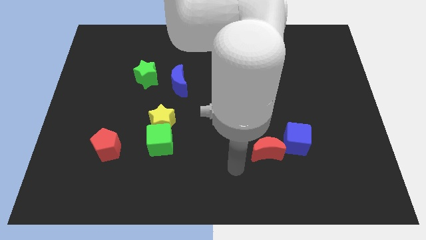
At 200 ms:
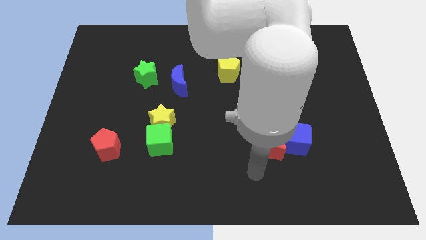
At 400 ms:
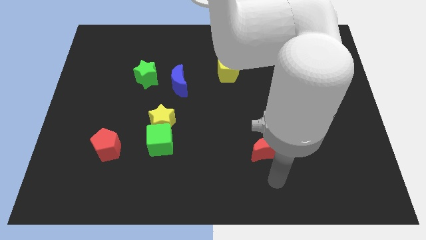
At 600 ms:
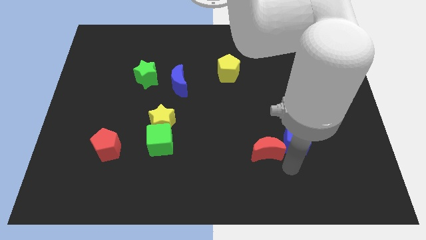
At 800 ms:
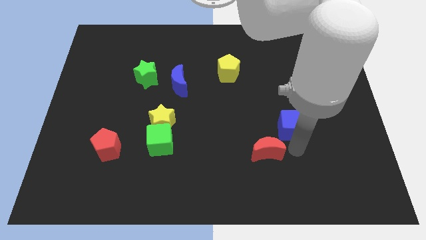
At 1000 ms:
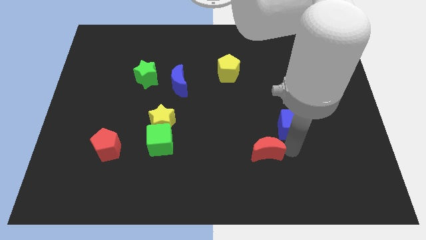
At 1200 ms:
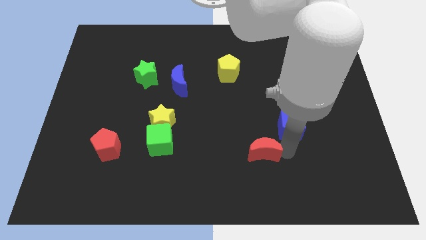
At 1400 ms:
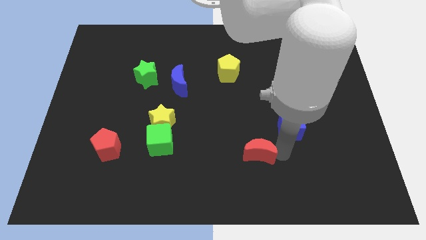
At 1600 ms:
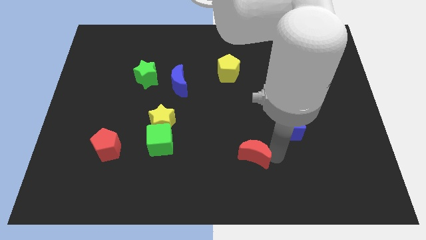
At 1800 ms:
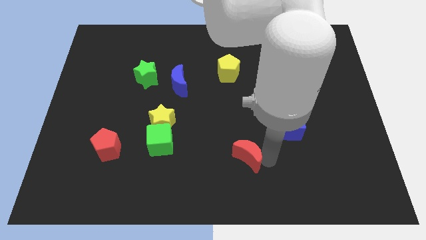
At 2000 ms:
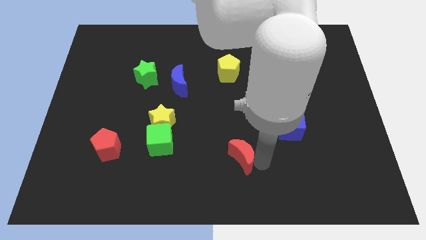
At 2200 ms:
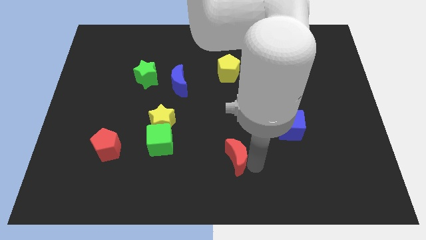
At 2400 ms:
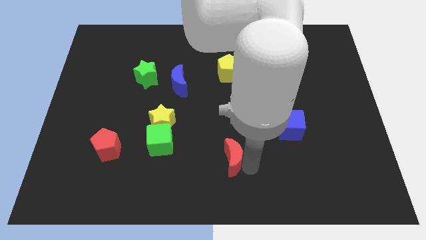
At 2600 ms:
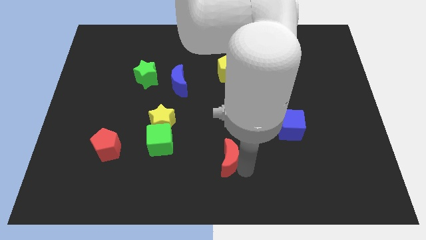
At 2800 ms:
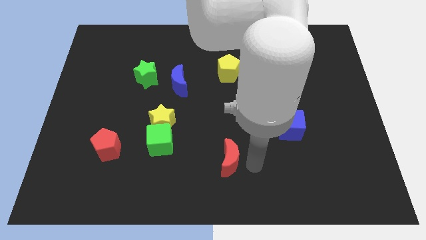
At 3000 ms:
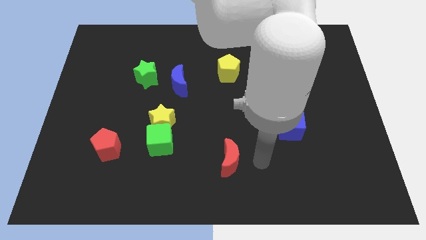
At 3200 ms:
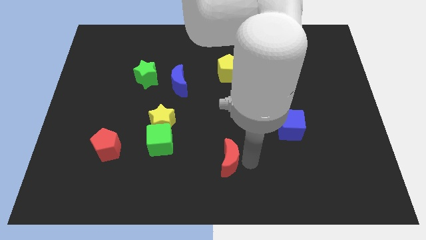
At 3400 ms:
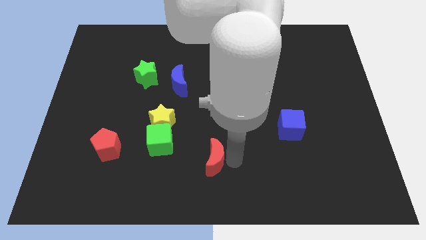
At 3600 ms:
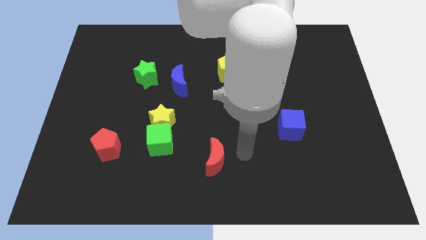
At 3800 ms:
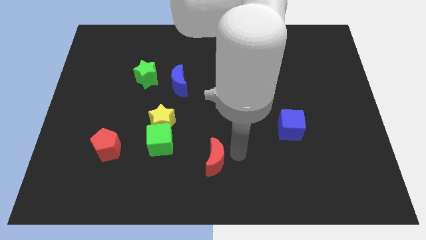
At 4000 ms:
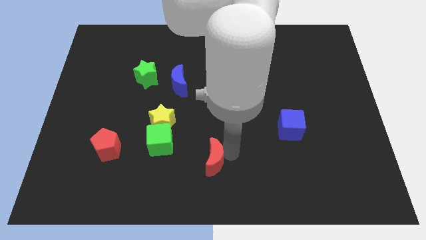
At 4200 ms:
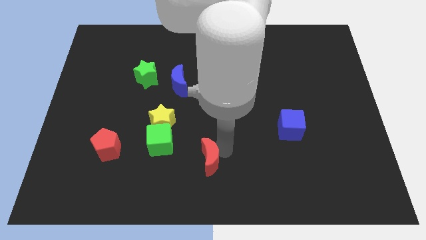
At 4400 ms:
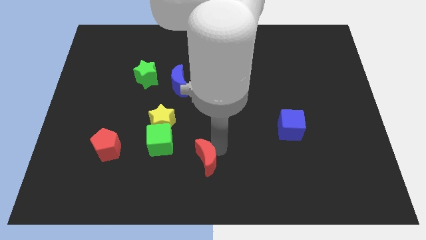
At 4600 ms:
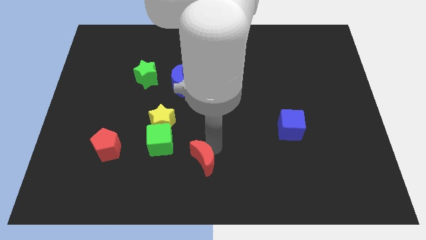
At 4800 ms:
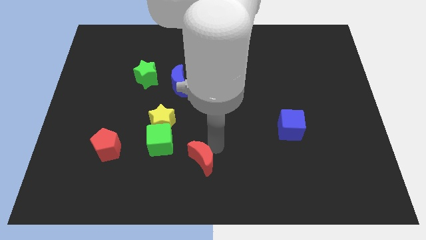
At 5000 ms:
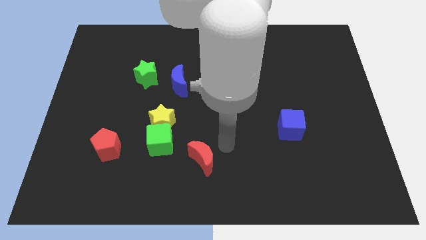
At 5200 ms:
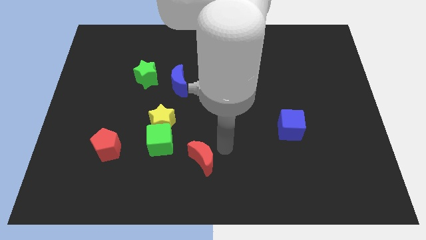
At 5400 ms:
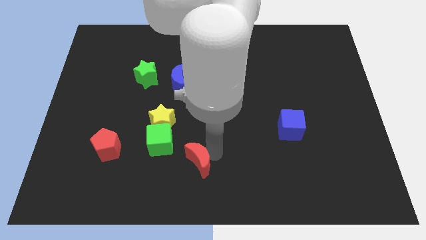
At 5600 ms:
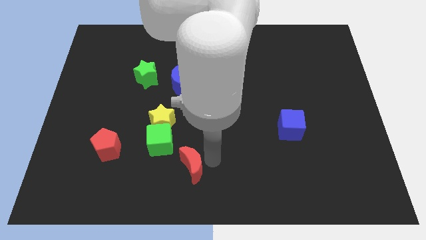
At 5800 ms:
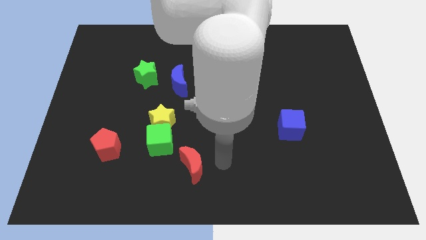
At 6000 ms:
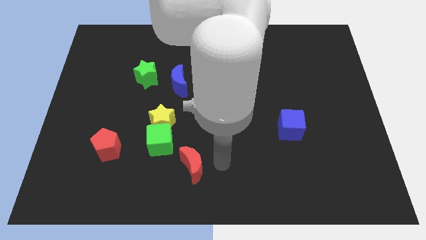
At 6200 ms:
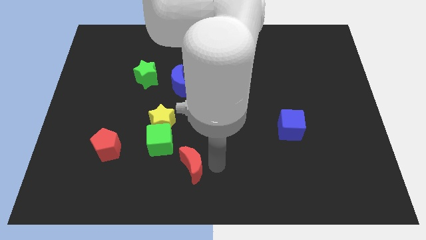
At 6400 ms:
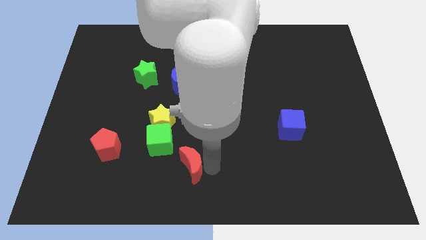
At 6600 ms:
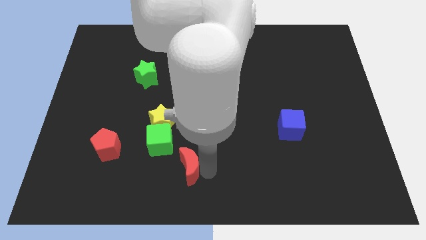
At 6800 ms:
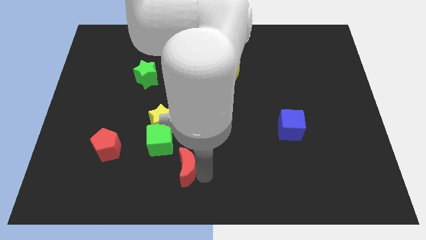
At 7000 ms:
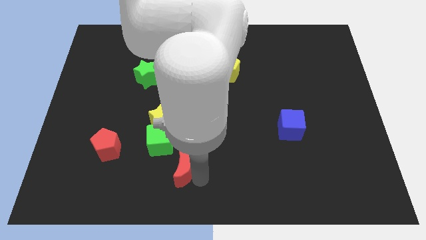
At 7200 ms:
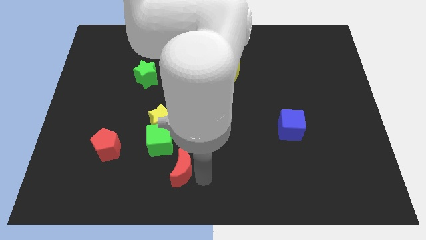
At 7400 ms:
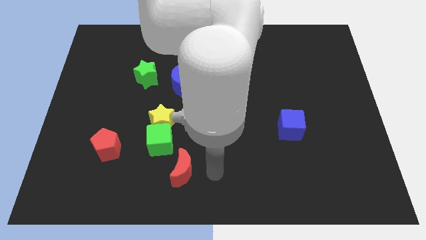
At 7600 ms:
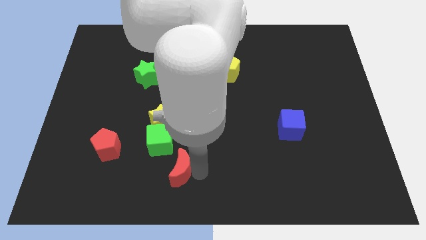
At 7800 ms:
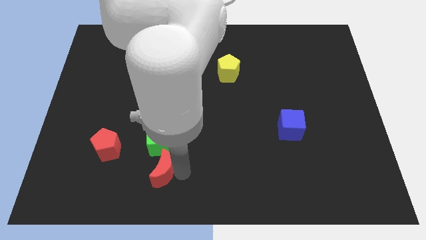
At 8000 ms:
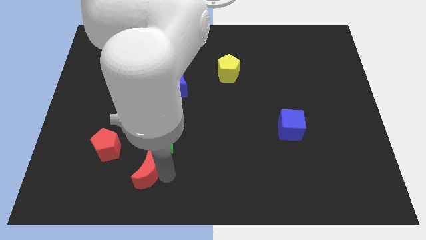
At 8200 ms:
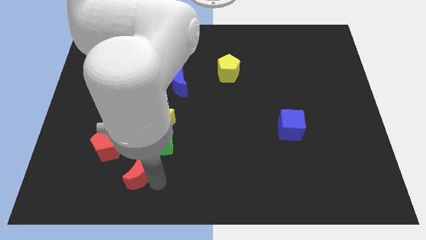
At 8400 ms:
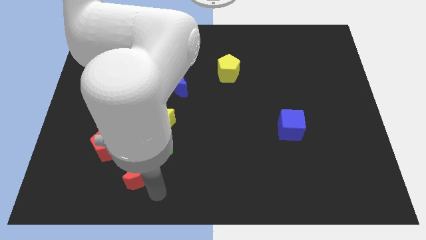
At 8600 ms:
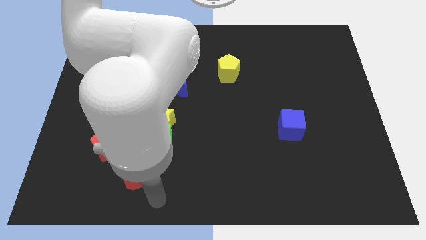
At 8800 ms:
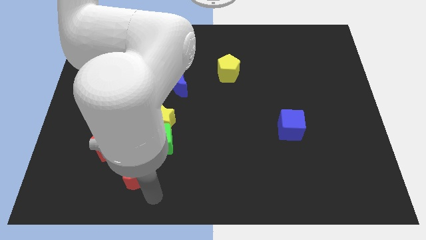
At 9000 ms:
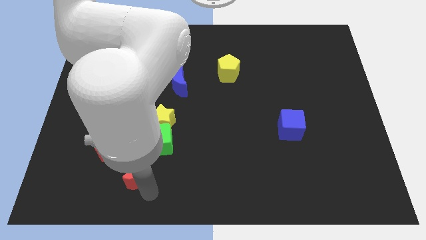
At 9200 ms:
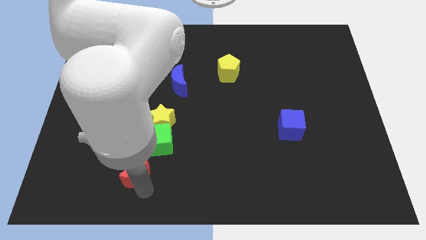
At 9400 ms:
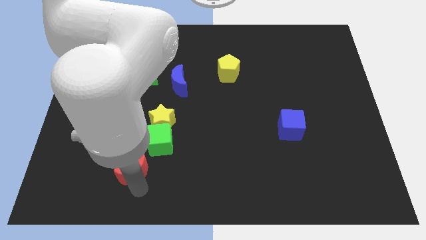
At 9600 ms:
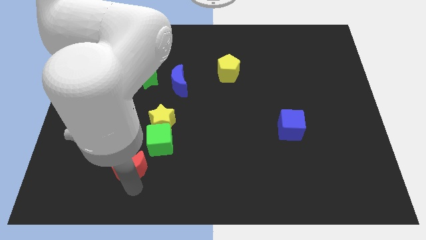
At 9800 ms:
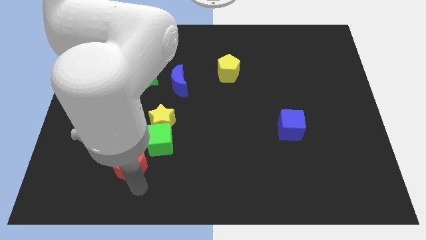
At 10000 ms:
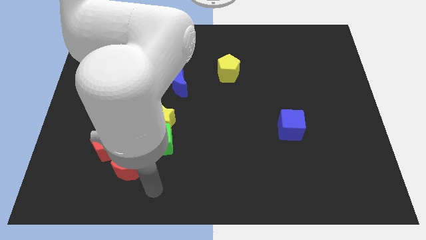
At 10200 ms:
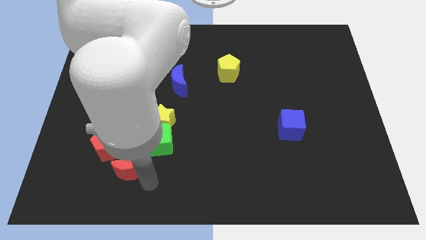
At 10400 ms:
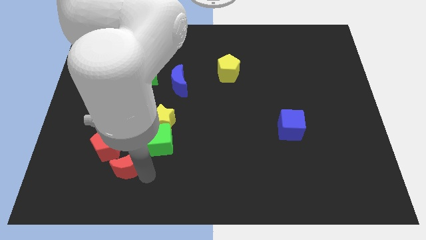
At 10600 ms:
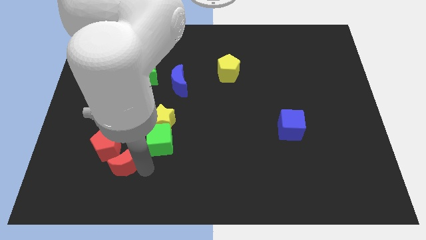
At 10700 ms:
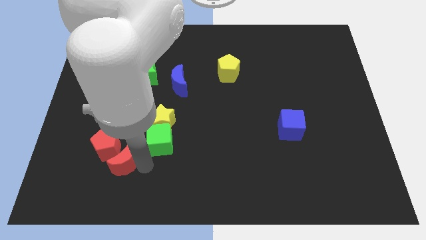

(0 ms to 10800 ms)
put the red moon towards the red pentagon

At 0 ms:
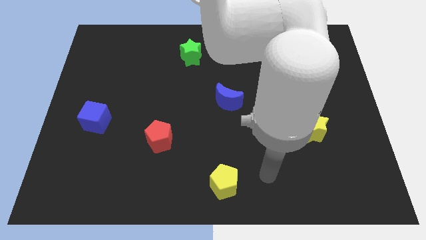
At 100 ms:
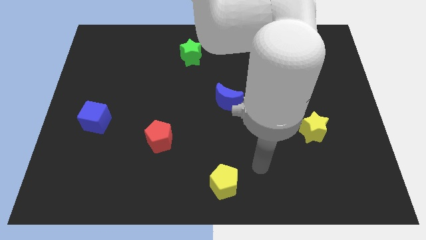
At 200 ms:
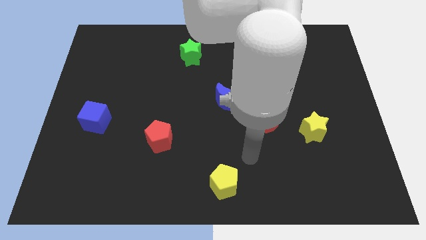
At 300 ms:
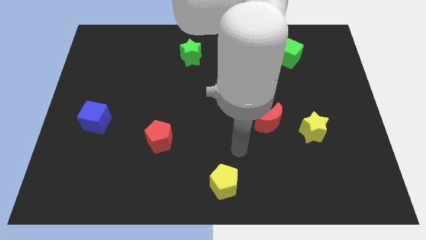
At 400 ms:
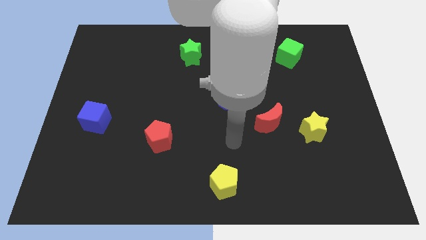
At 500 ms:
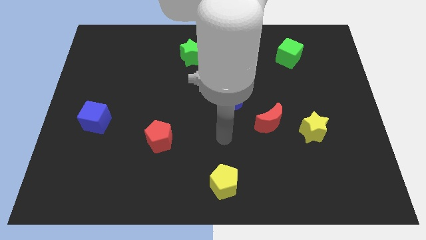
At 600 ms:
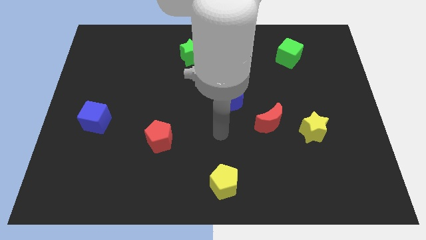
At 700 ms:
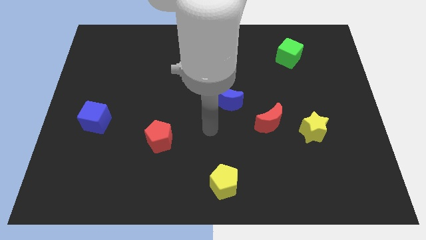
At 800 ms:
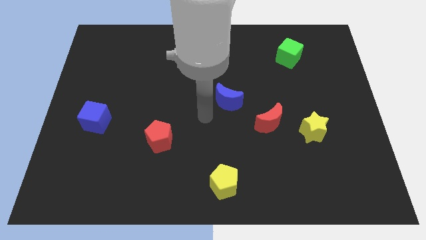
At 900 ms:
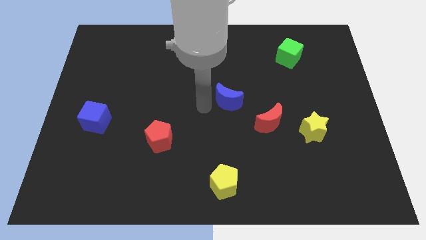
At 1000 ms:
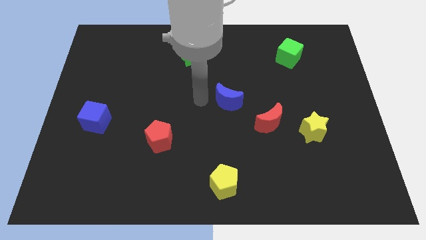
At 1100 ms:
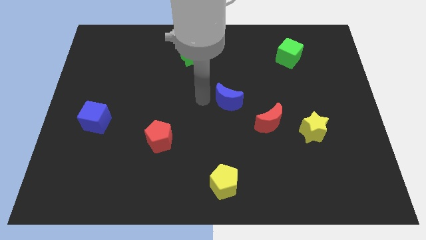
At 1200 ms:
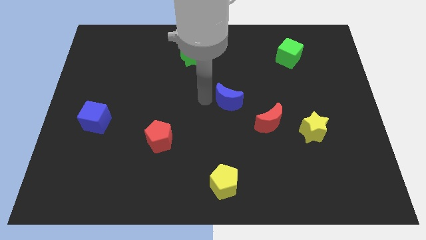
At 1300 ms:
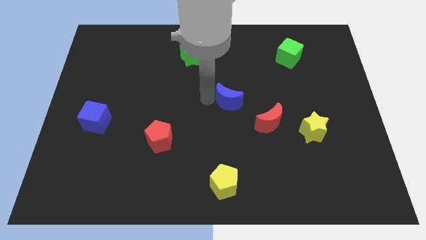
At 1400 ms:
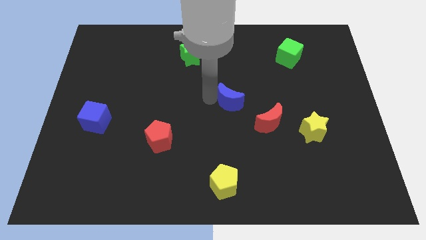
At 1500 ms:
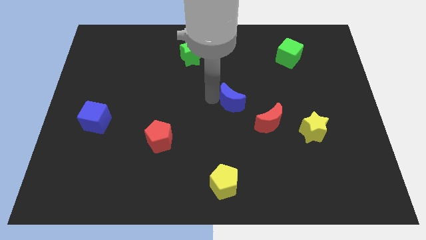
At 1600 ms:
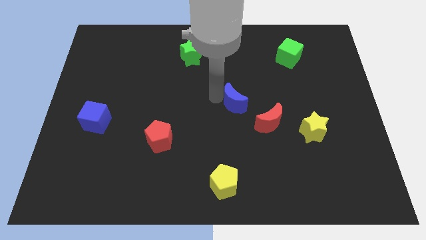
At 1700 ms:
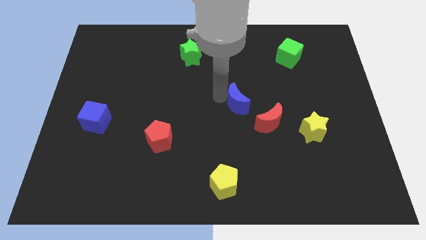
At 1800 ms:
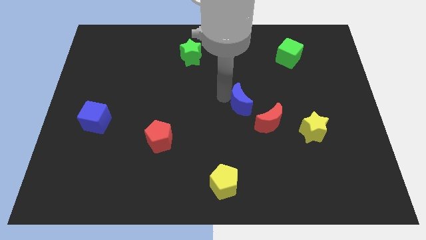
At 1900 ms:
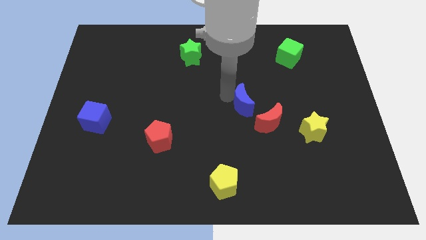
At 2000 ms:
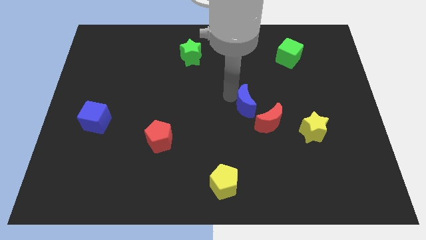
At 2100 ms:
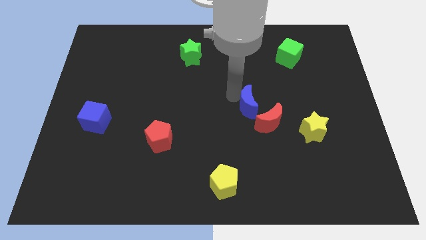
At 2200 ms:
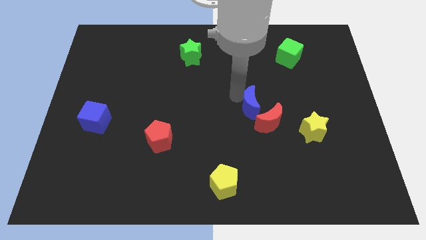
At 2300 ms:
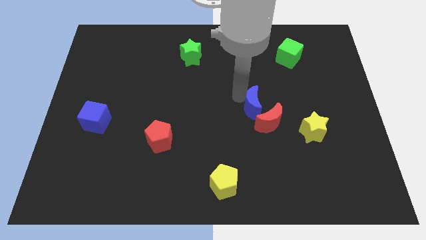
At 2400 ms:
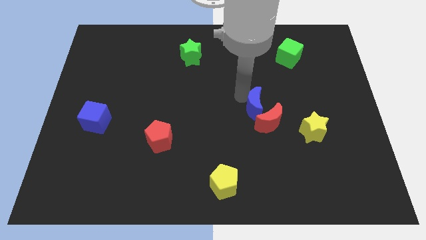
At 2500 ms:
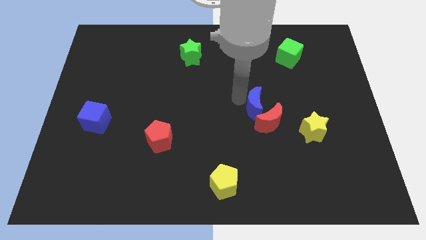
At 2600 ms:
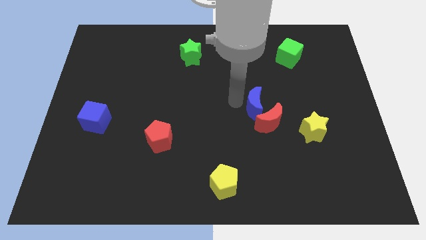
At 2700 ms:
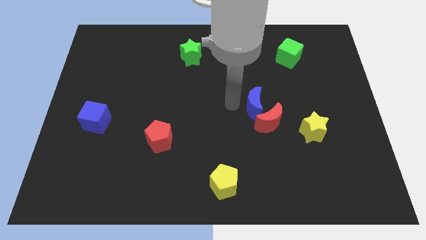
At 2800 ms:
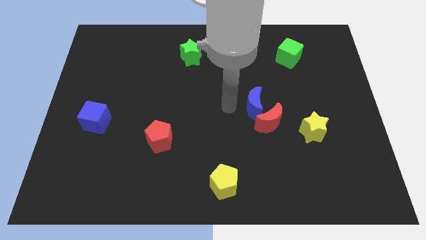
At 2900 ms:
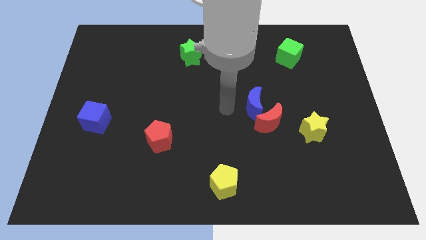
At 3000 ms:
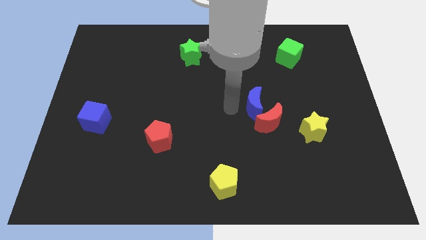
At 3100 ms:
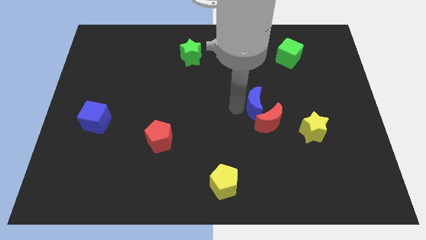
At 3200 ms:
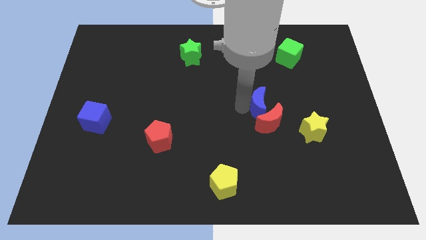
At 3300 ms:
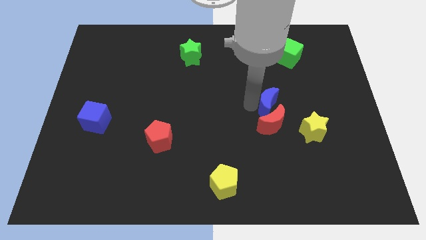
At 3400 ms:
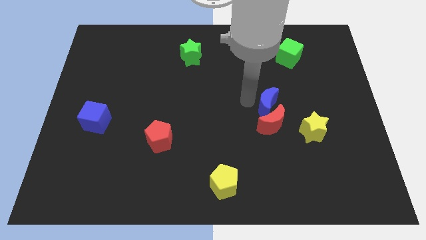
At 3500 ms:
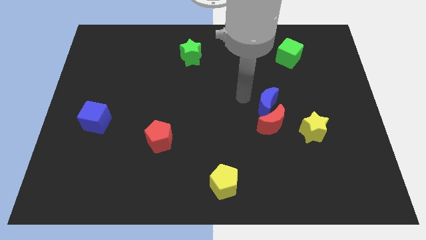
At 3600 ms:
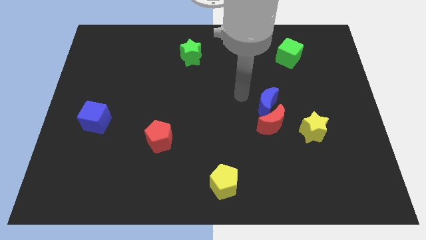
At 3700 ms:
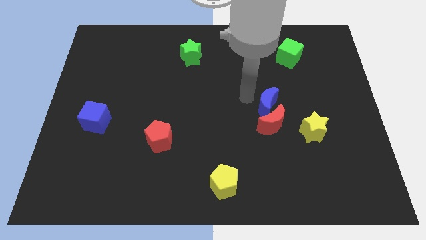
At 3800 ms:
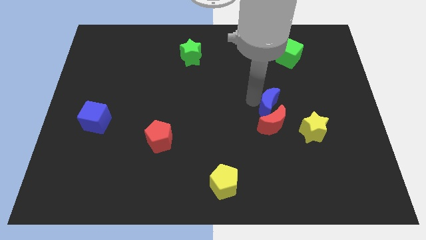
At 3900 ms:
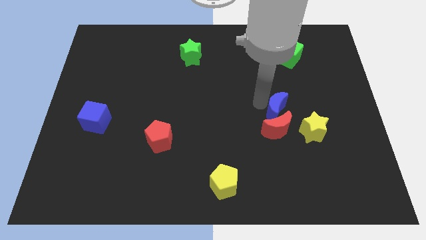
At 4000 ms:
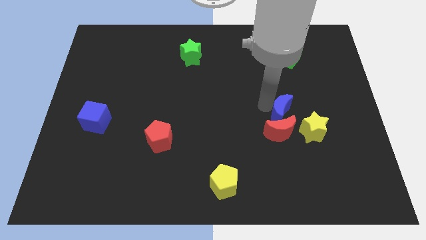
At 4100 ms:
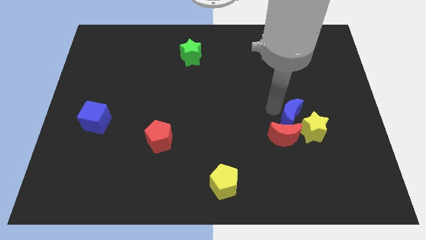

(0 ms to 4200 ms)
push the blue moon next to the yellow star
